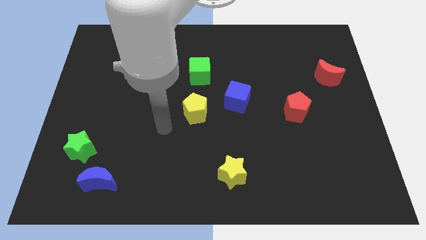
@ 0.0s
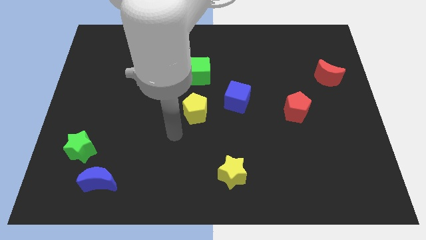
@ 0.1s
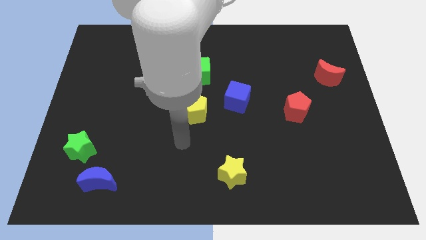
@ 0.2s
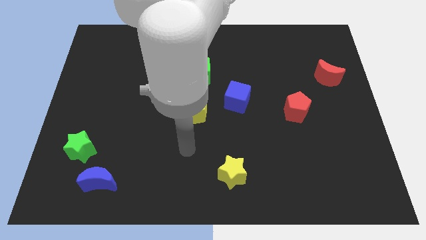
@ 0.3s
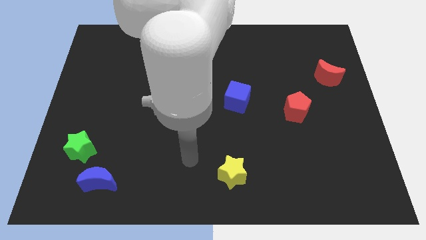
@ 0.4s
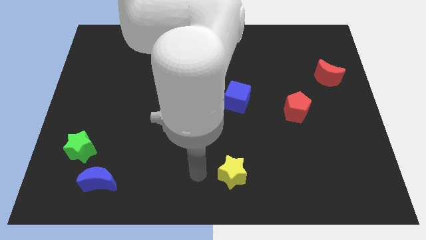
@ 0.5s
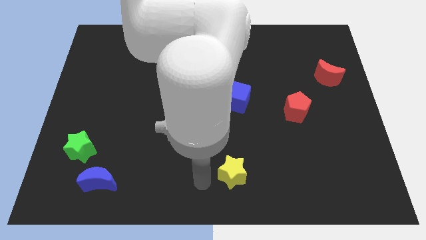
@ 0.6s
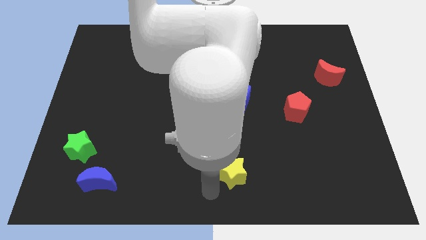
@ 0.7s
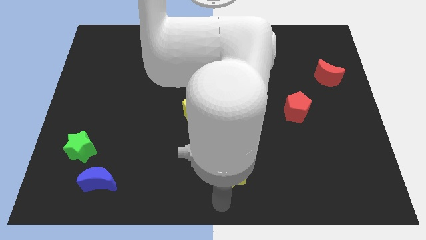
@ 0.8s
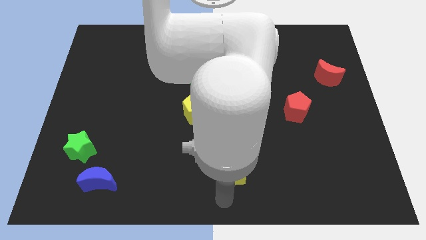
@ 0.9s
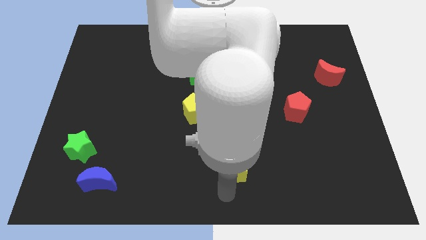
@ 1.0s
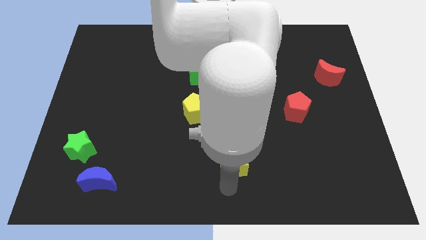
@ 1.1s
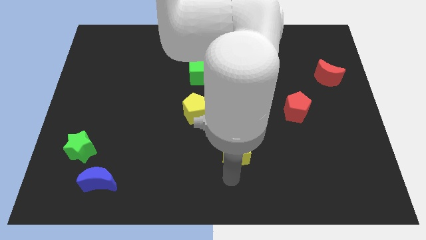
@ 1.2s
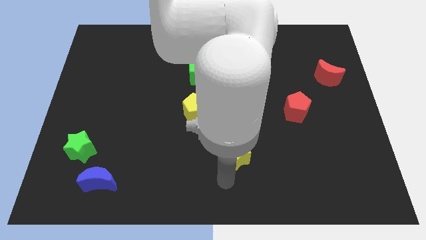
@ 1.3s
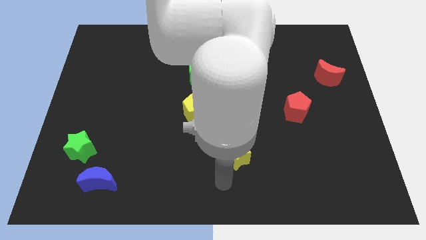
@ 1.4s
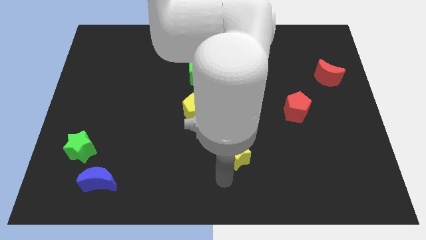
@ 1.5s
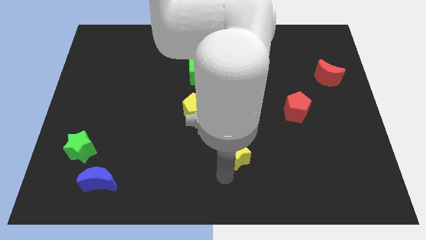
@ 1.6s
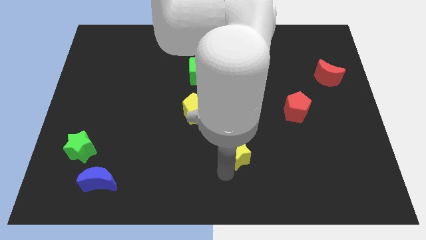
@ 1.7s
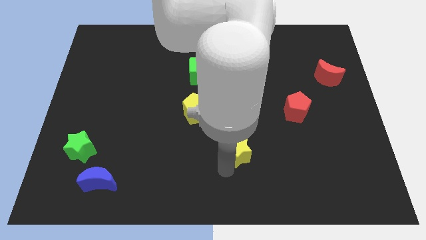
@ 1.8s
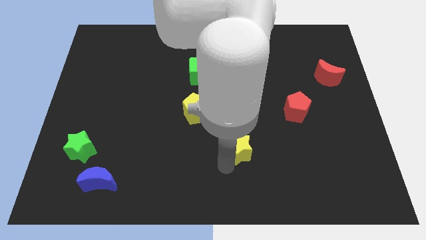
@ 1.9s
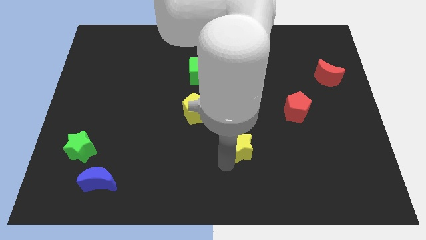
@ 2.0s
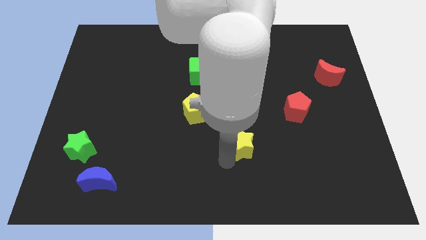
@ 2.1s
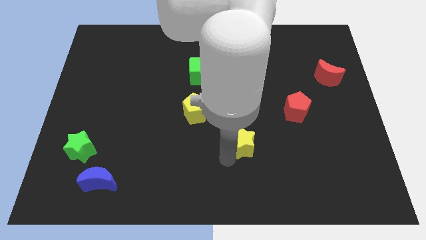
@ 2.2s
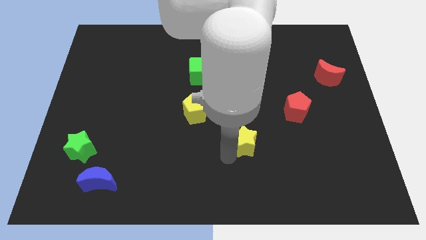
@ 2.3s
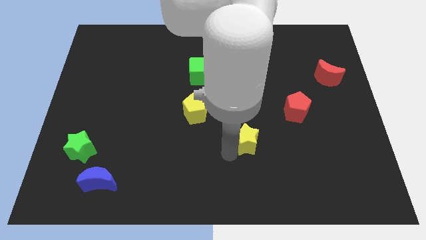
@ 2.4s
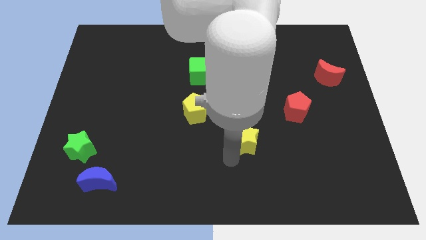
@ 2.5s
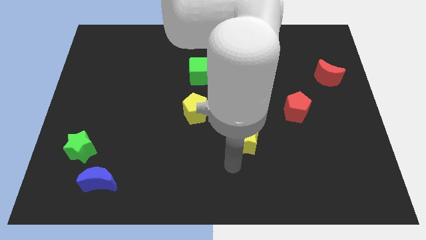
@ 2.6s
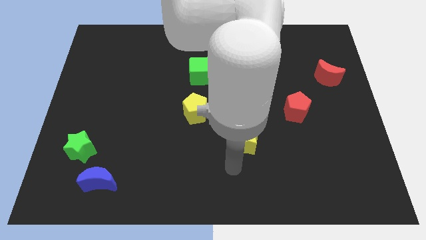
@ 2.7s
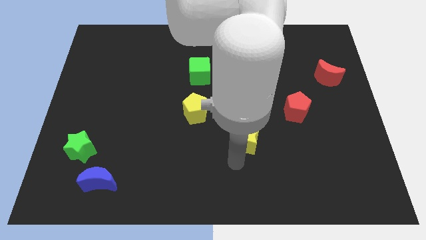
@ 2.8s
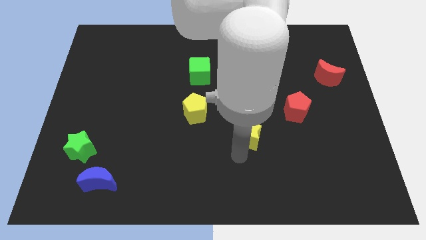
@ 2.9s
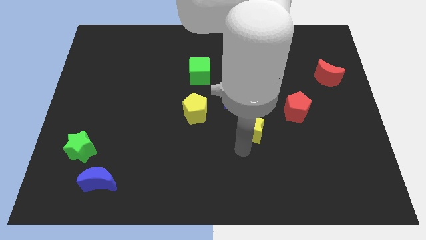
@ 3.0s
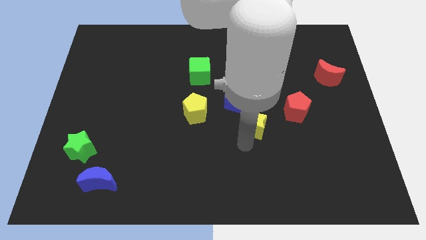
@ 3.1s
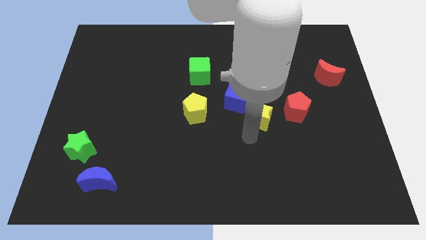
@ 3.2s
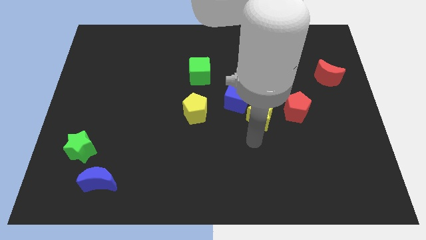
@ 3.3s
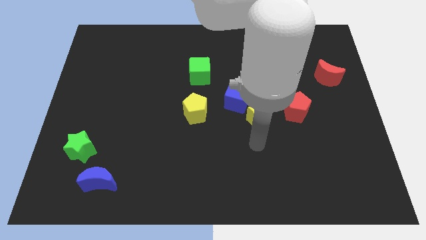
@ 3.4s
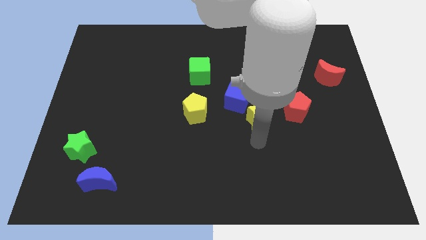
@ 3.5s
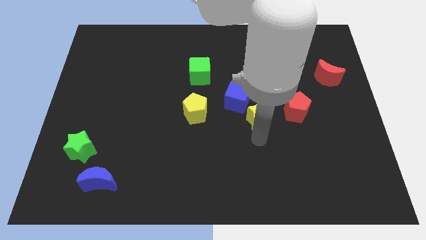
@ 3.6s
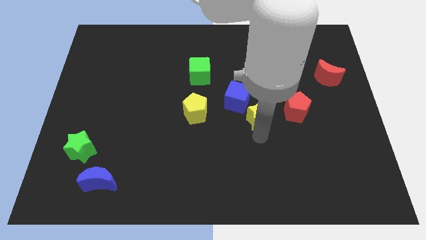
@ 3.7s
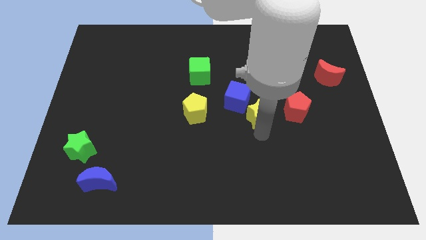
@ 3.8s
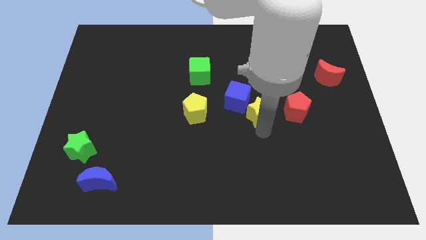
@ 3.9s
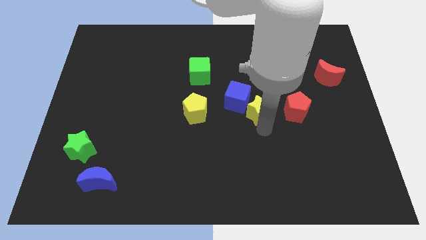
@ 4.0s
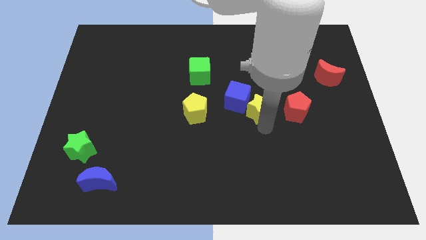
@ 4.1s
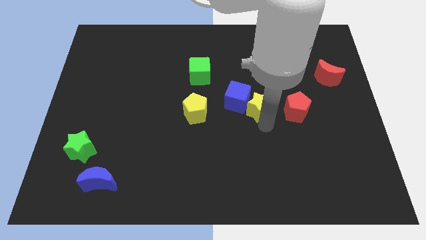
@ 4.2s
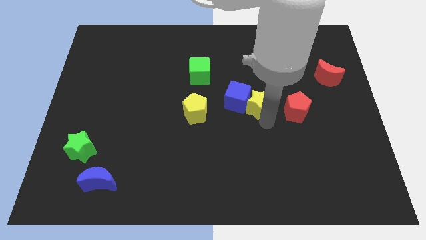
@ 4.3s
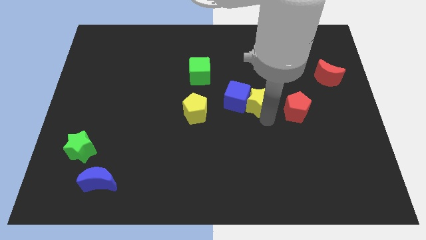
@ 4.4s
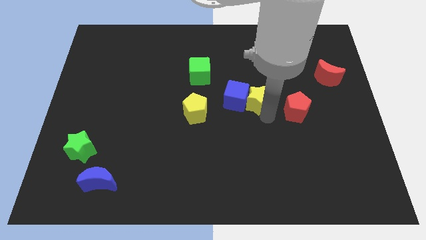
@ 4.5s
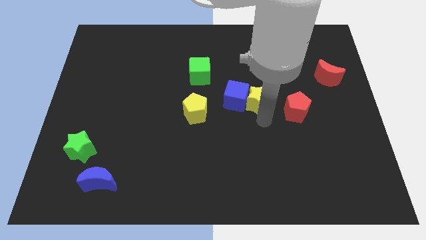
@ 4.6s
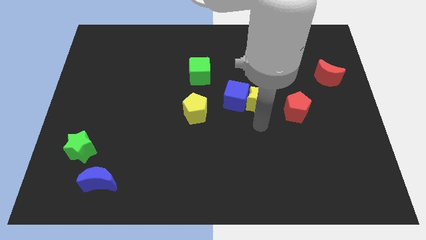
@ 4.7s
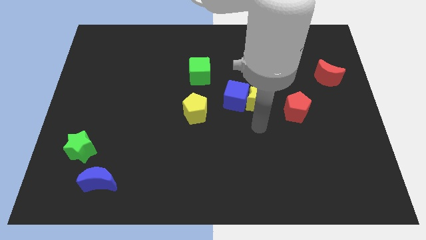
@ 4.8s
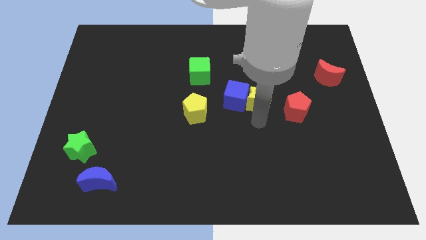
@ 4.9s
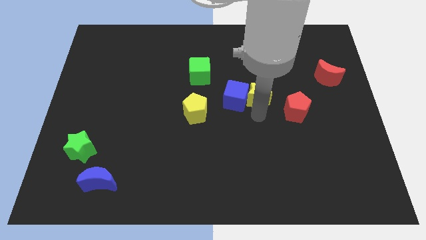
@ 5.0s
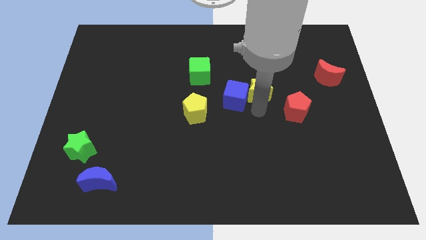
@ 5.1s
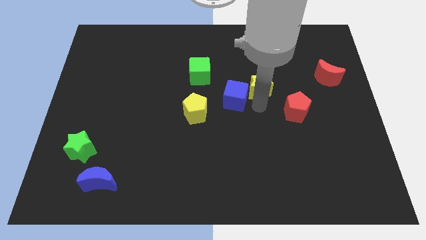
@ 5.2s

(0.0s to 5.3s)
slide the yellow star upwards

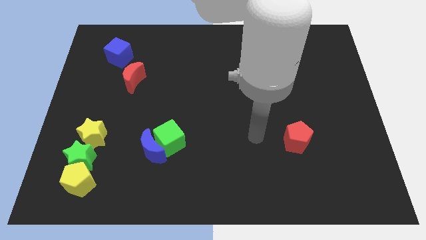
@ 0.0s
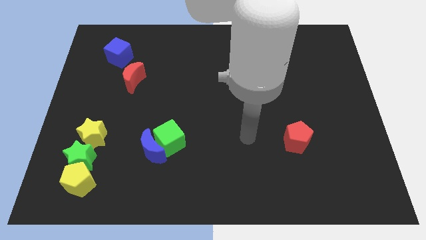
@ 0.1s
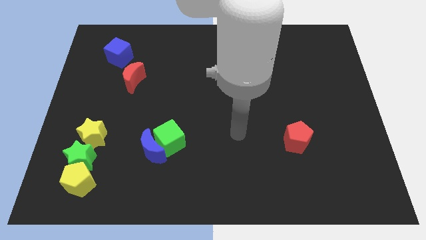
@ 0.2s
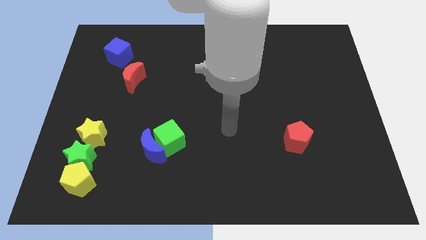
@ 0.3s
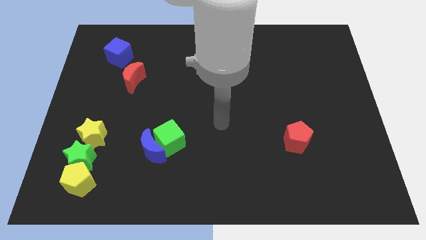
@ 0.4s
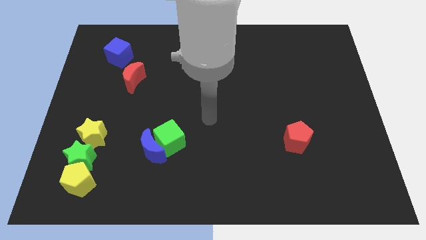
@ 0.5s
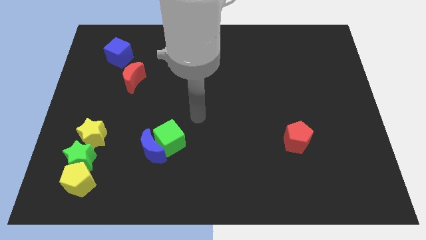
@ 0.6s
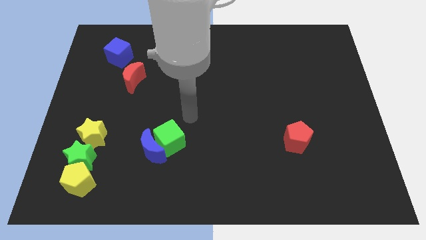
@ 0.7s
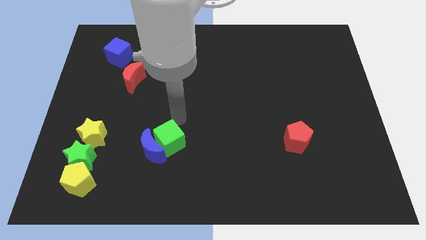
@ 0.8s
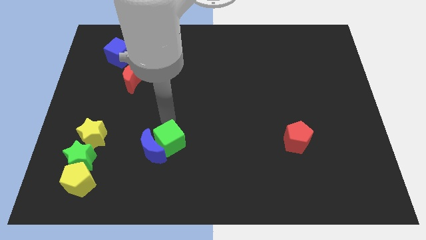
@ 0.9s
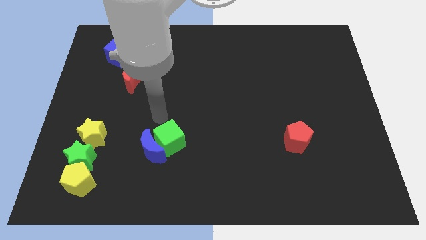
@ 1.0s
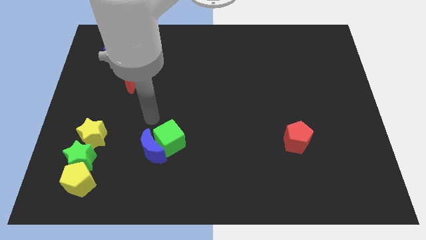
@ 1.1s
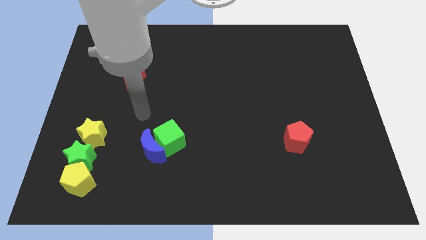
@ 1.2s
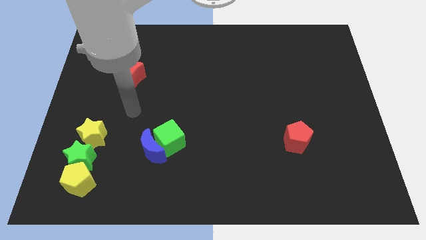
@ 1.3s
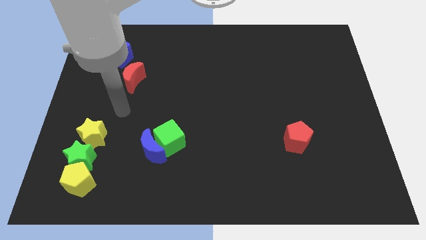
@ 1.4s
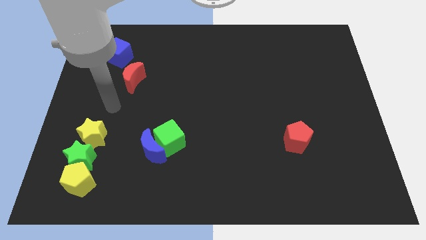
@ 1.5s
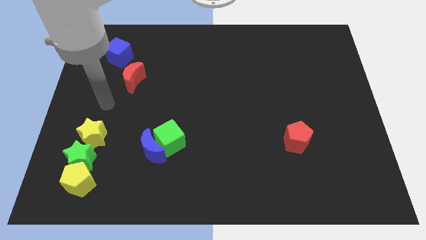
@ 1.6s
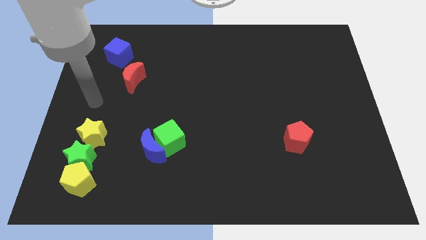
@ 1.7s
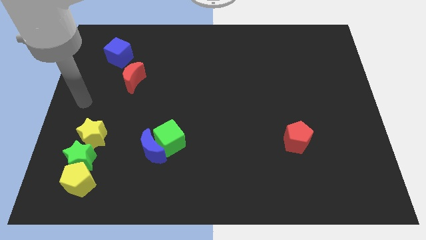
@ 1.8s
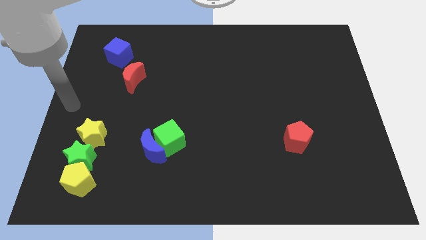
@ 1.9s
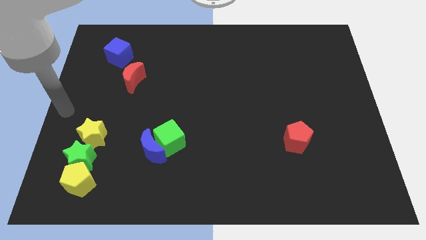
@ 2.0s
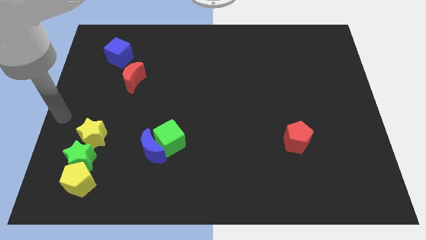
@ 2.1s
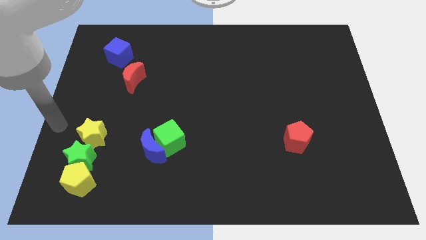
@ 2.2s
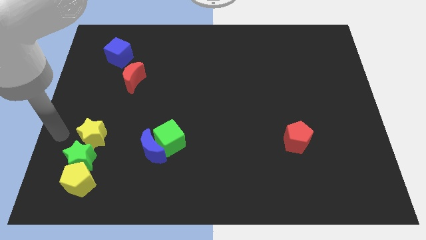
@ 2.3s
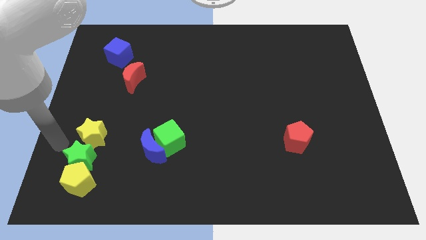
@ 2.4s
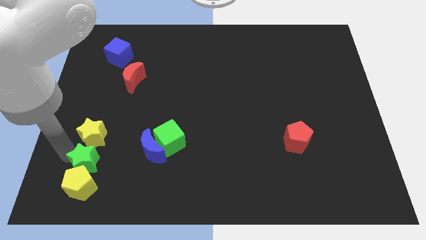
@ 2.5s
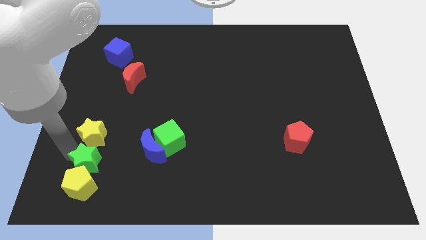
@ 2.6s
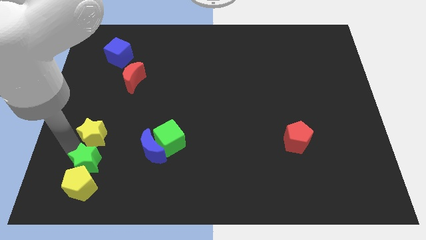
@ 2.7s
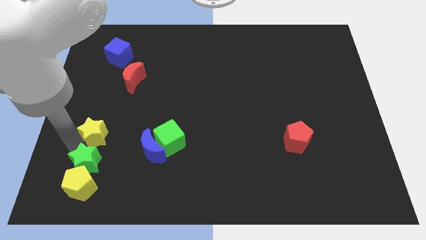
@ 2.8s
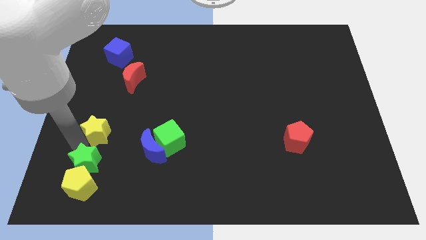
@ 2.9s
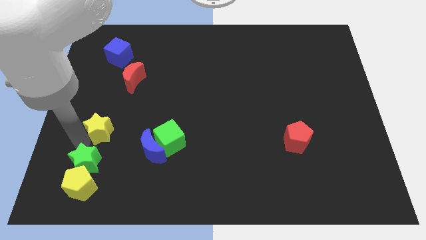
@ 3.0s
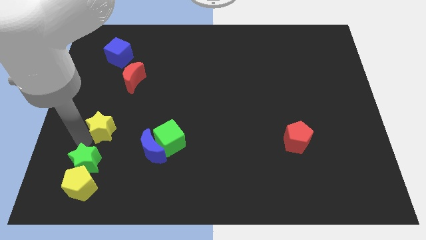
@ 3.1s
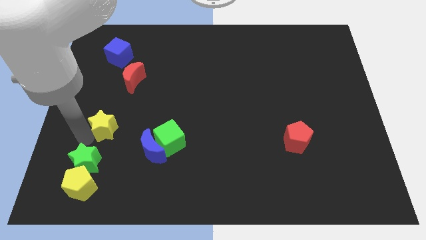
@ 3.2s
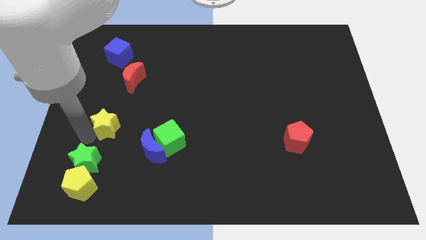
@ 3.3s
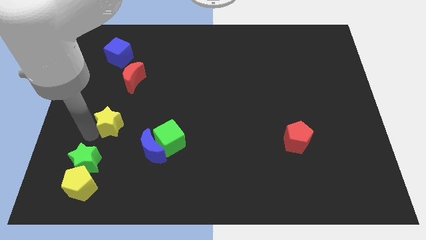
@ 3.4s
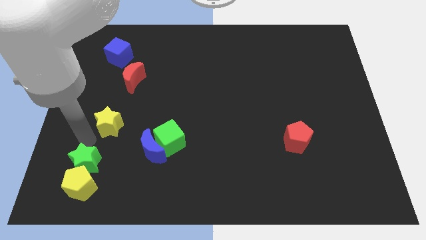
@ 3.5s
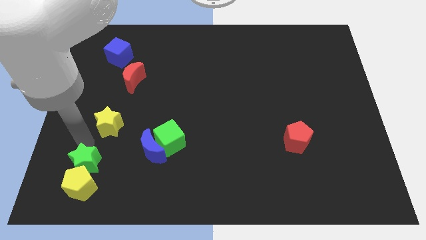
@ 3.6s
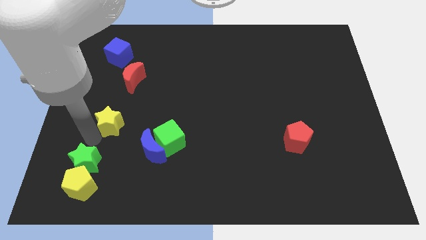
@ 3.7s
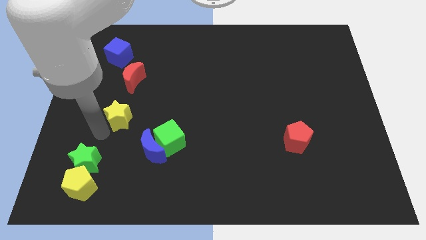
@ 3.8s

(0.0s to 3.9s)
slightly slide the yellow star upwards and then right
